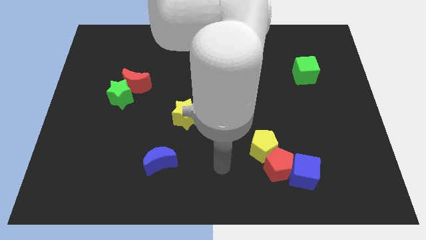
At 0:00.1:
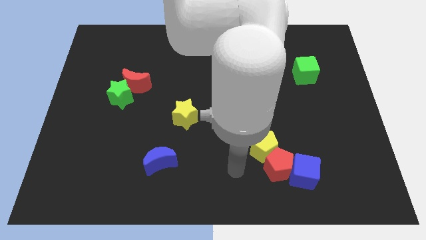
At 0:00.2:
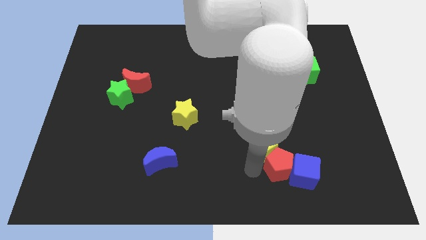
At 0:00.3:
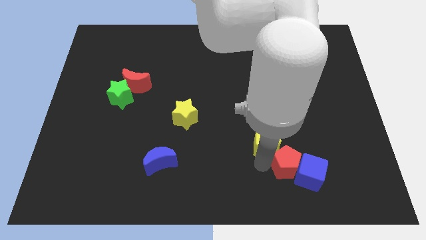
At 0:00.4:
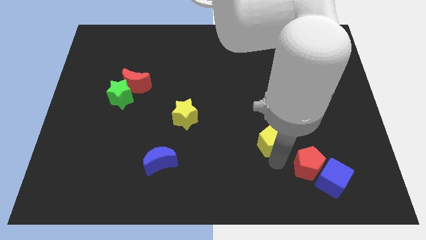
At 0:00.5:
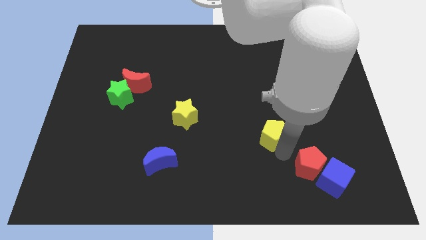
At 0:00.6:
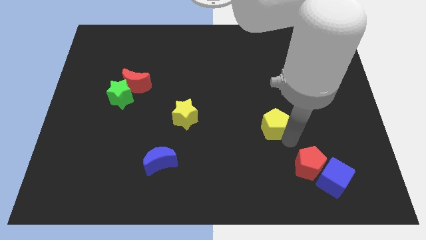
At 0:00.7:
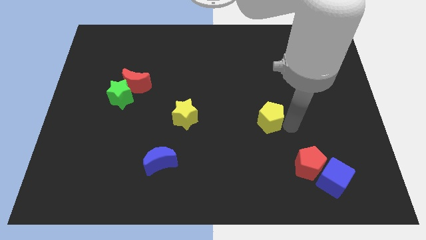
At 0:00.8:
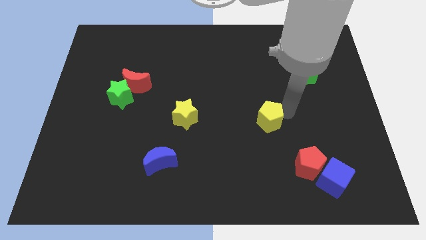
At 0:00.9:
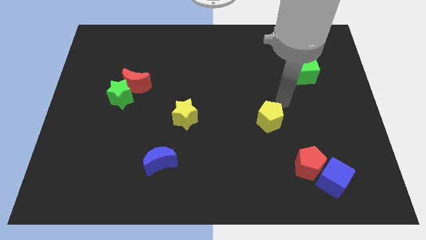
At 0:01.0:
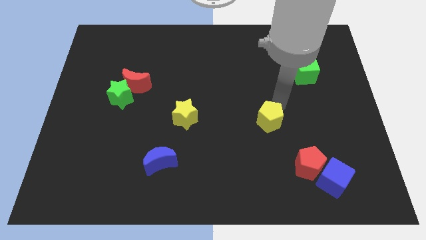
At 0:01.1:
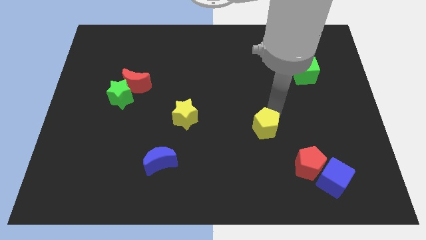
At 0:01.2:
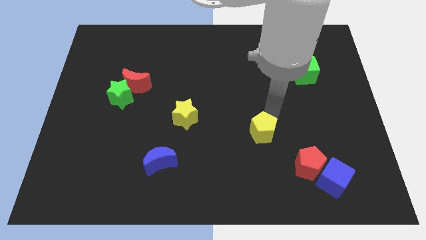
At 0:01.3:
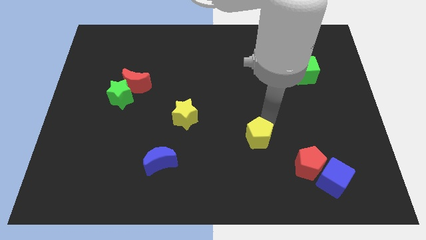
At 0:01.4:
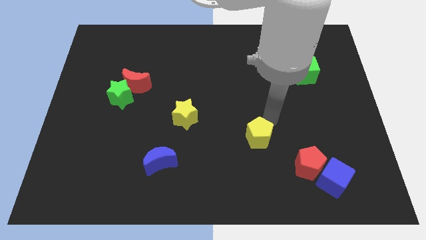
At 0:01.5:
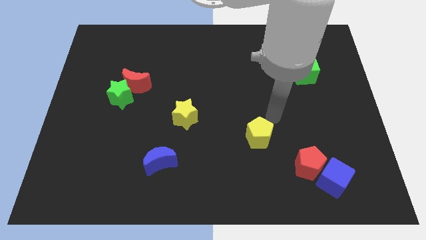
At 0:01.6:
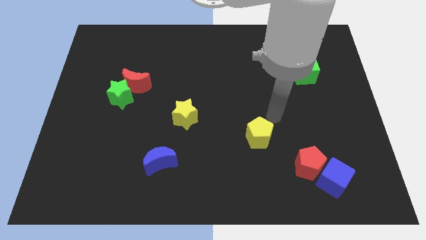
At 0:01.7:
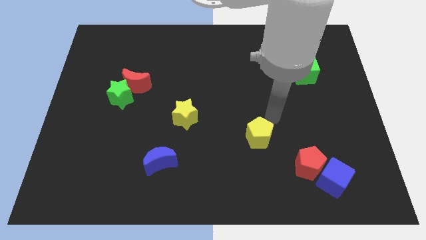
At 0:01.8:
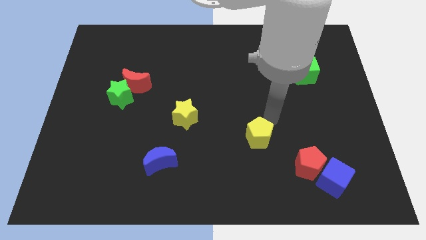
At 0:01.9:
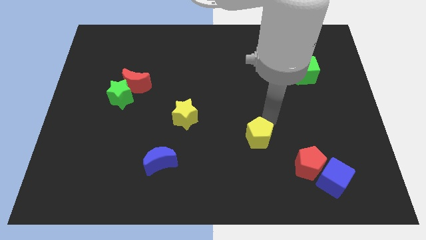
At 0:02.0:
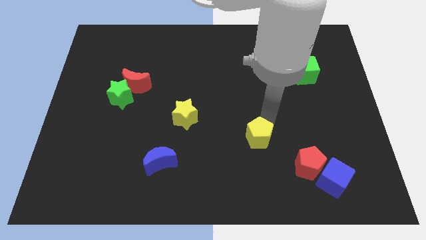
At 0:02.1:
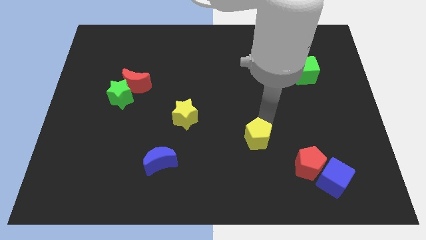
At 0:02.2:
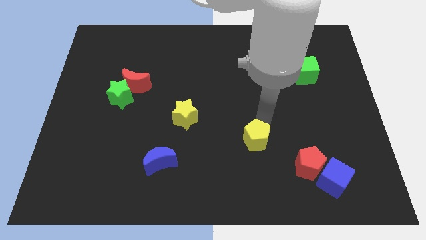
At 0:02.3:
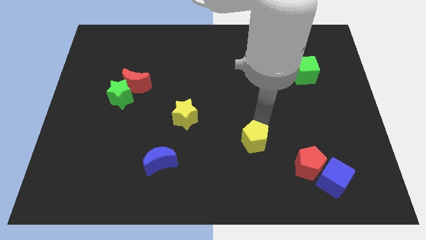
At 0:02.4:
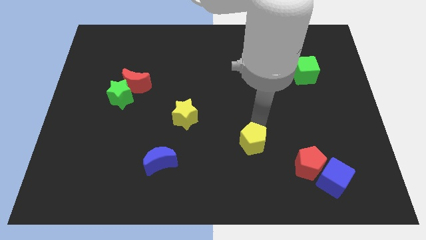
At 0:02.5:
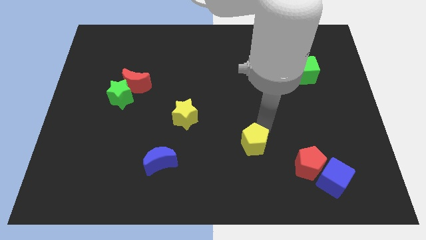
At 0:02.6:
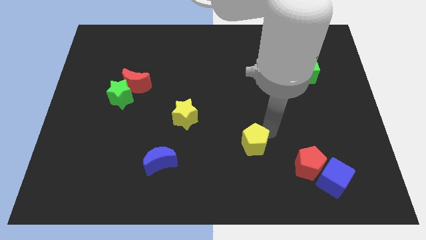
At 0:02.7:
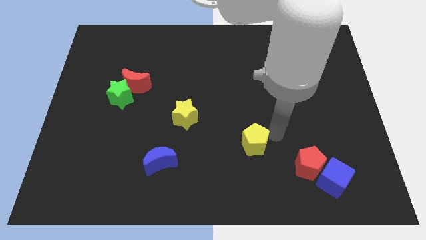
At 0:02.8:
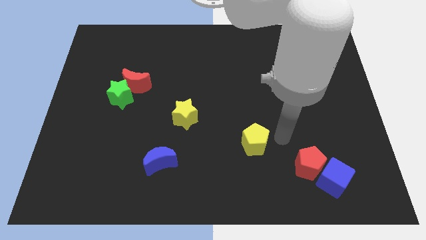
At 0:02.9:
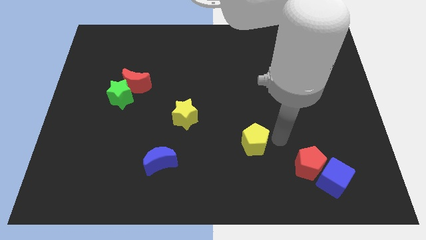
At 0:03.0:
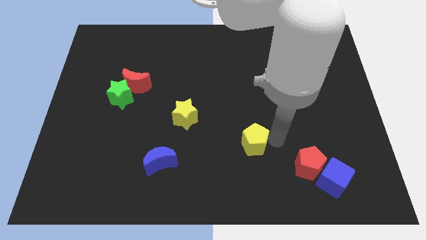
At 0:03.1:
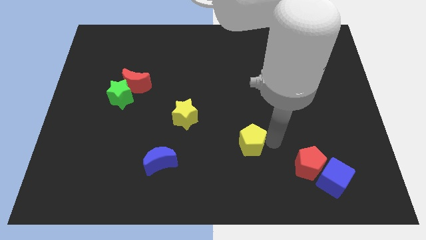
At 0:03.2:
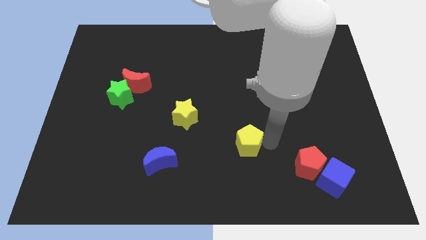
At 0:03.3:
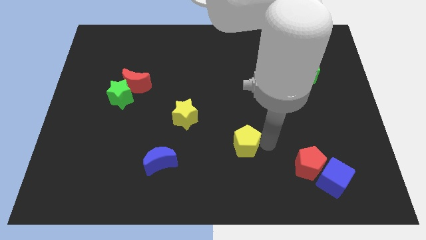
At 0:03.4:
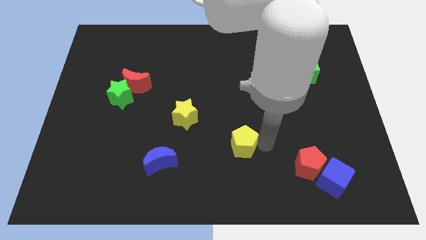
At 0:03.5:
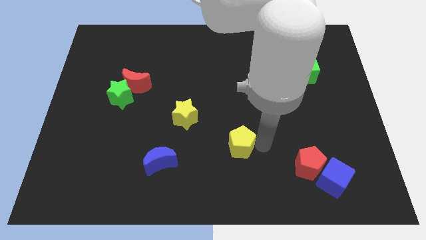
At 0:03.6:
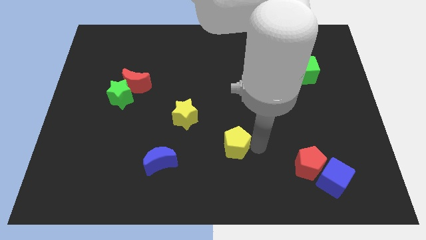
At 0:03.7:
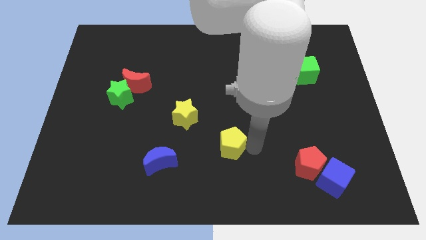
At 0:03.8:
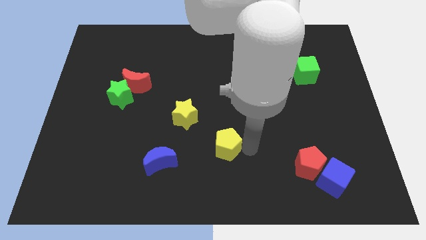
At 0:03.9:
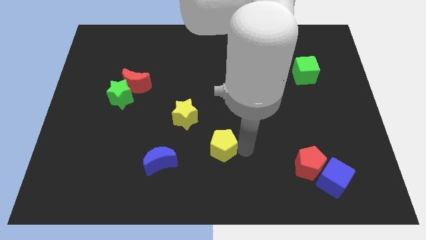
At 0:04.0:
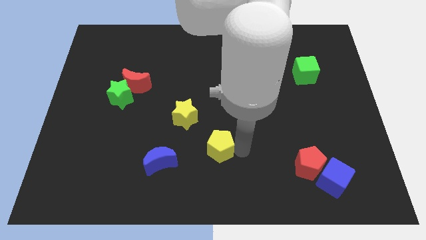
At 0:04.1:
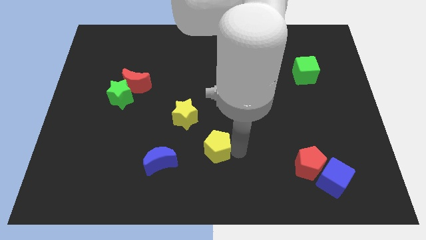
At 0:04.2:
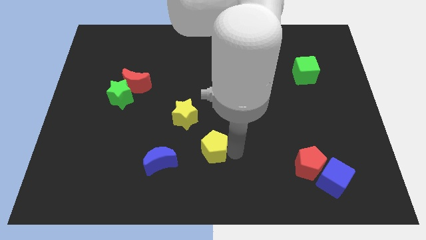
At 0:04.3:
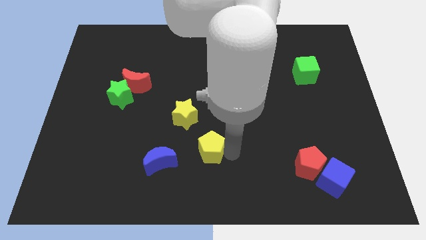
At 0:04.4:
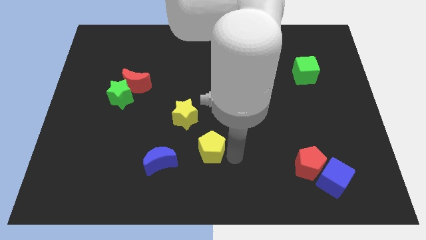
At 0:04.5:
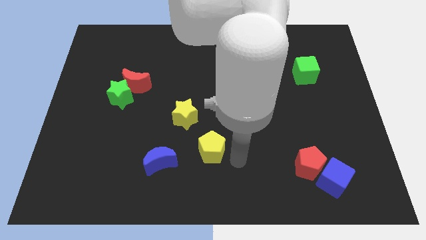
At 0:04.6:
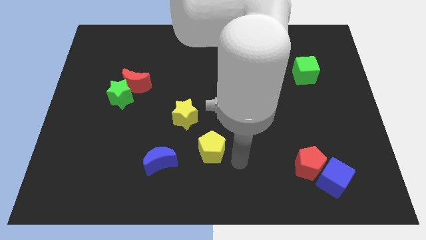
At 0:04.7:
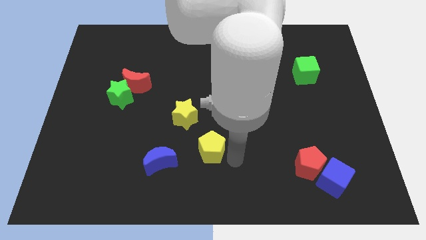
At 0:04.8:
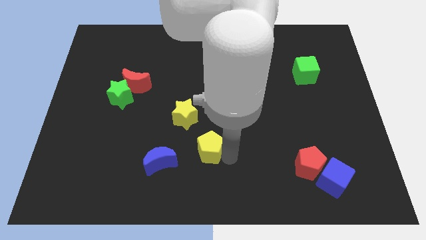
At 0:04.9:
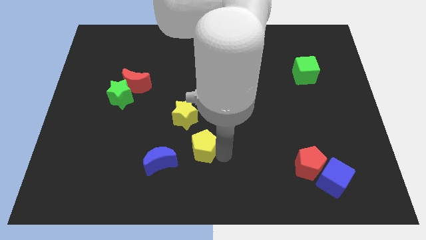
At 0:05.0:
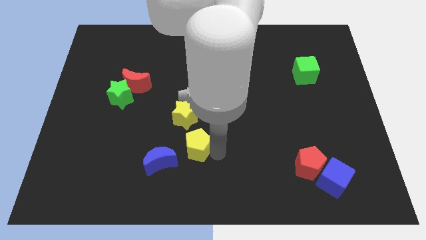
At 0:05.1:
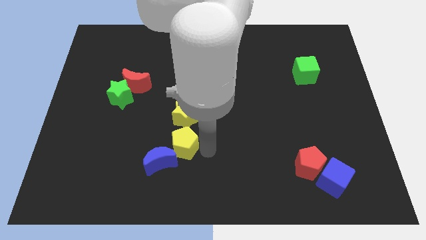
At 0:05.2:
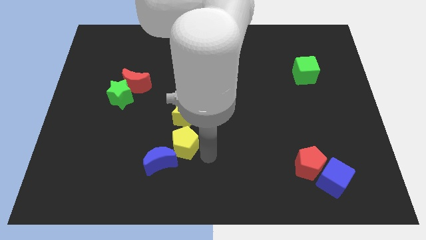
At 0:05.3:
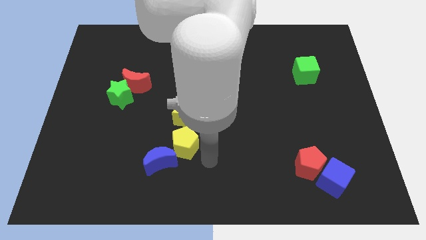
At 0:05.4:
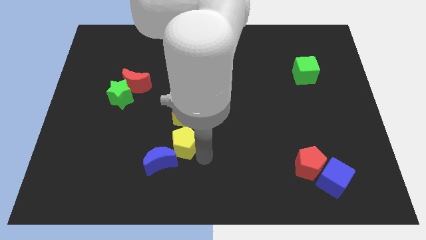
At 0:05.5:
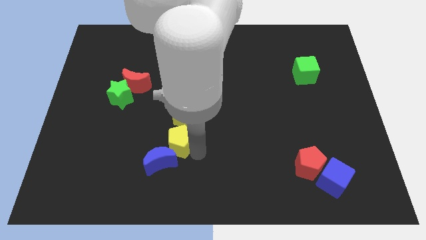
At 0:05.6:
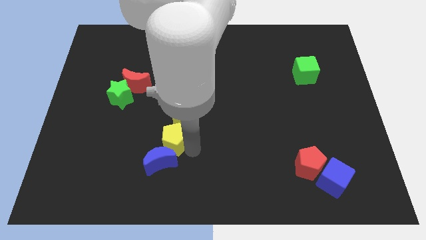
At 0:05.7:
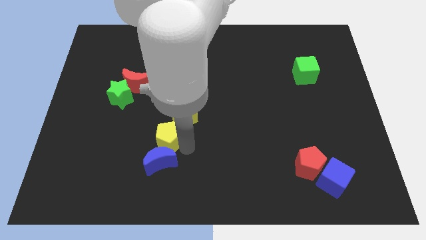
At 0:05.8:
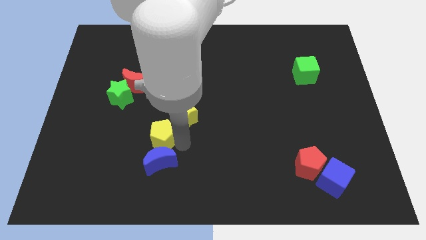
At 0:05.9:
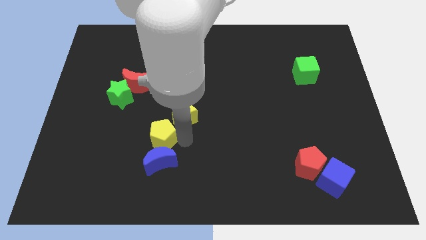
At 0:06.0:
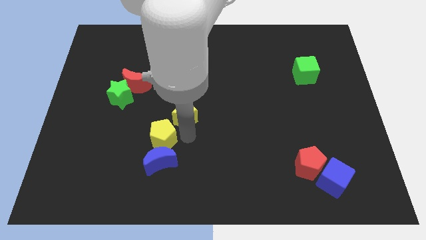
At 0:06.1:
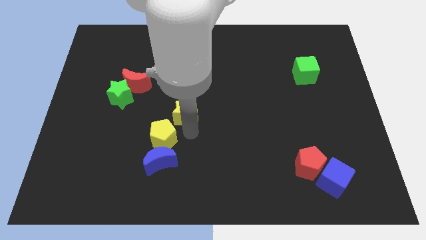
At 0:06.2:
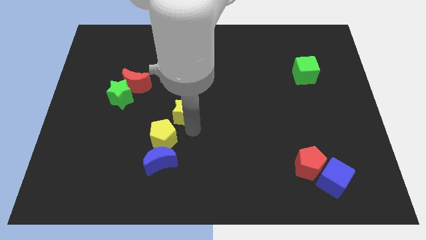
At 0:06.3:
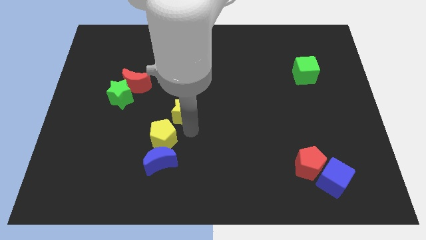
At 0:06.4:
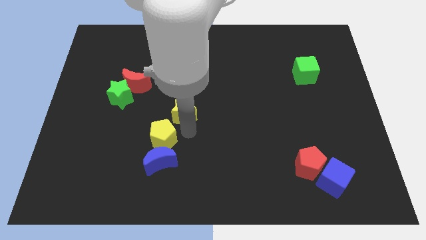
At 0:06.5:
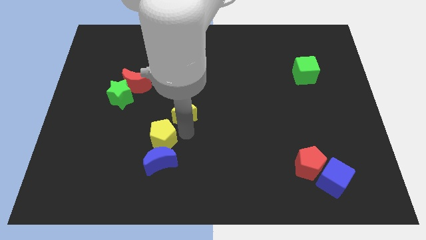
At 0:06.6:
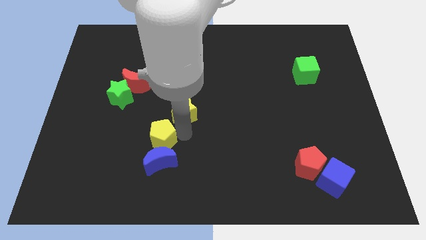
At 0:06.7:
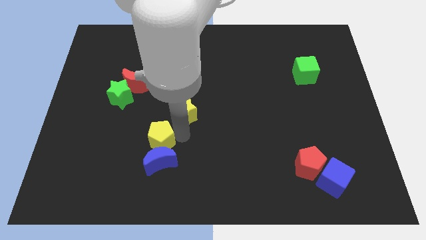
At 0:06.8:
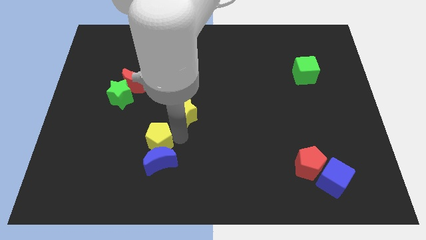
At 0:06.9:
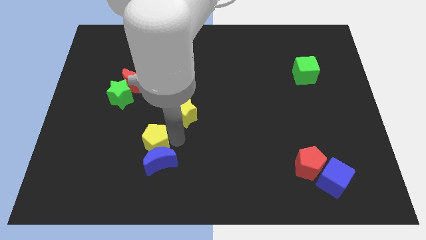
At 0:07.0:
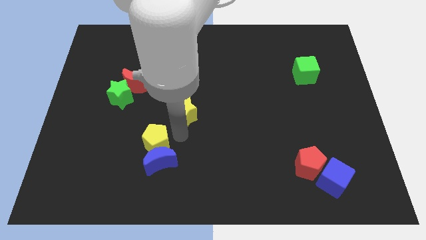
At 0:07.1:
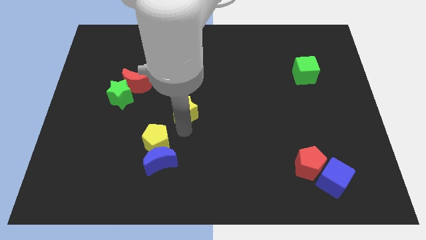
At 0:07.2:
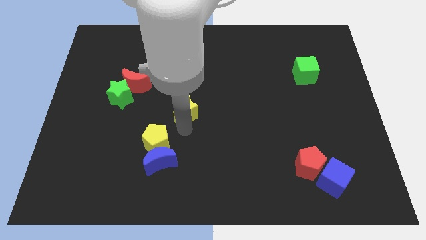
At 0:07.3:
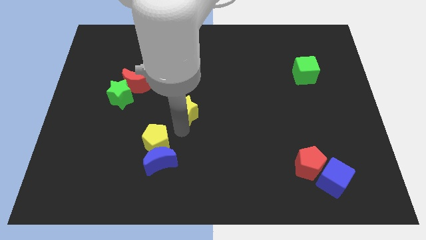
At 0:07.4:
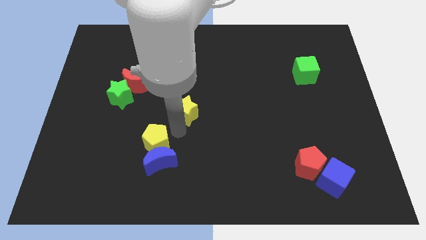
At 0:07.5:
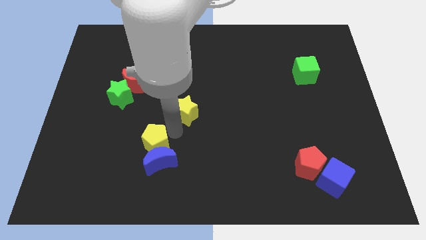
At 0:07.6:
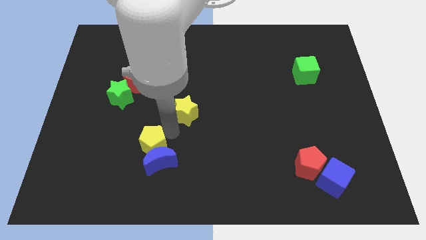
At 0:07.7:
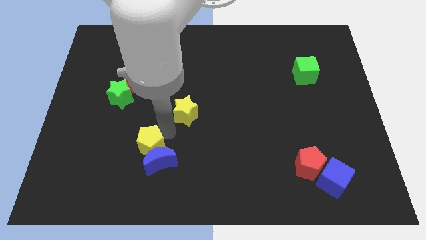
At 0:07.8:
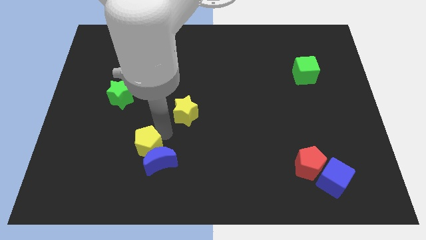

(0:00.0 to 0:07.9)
move the yellow pentagon to the left of the blue moon
